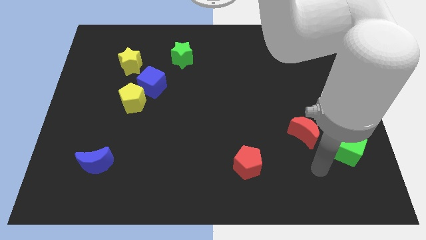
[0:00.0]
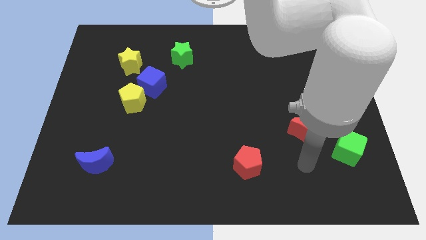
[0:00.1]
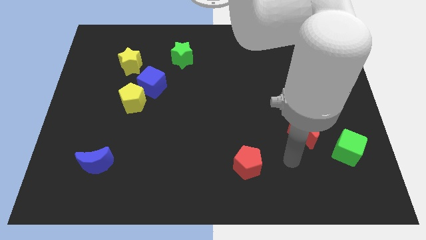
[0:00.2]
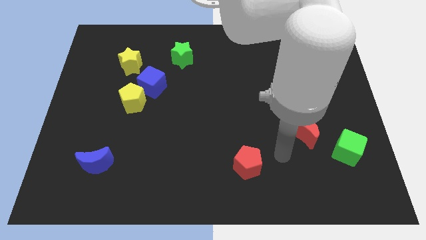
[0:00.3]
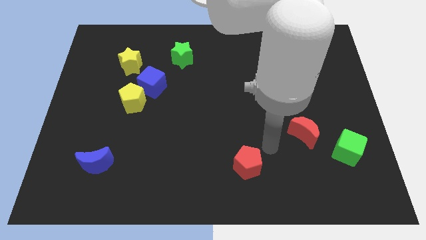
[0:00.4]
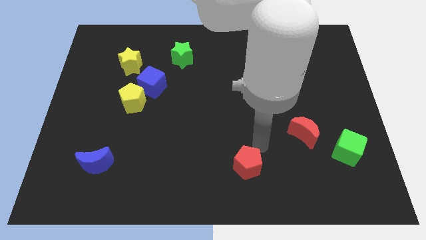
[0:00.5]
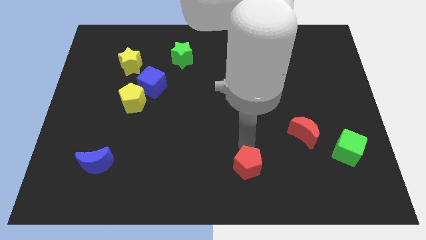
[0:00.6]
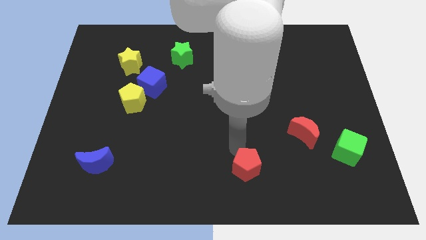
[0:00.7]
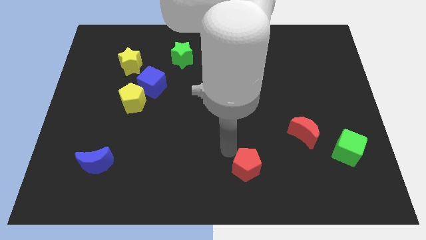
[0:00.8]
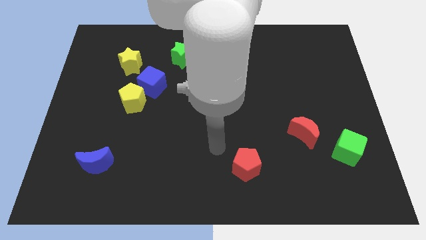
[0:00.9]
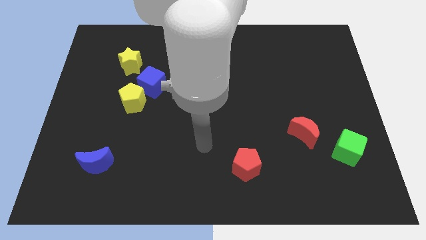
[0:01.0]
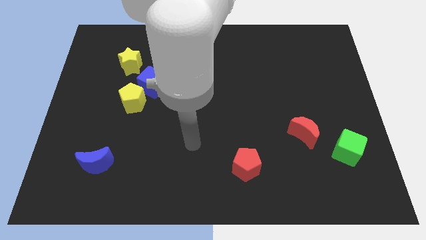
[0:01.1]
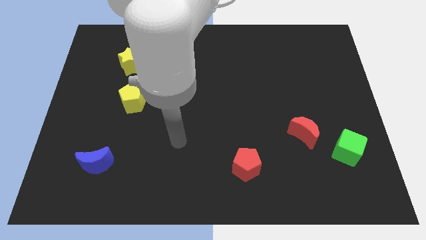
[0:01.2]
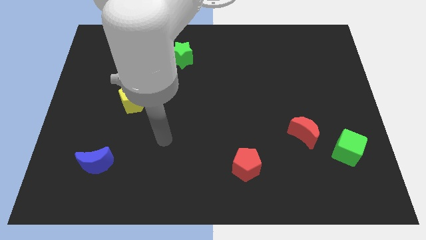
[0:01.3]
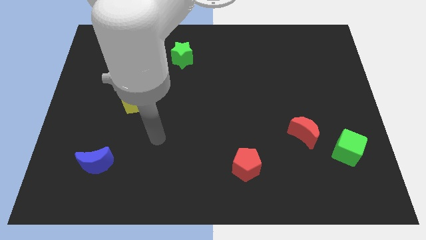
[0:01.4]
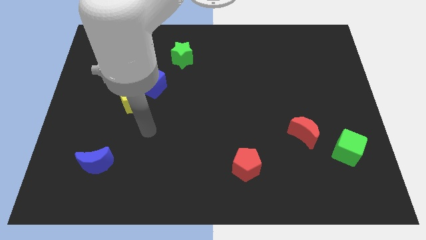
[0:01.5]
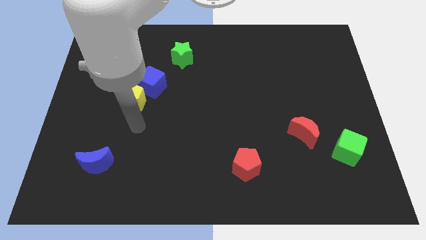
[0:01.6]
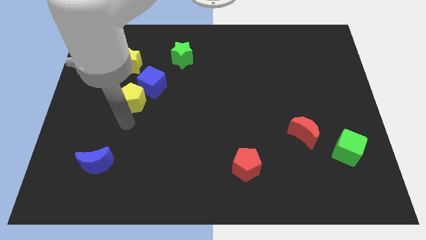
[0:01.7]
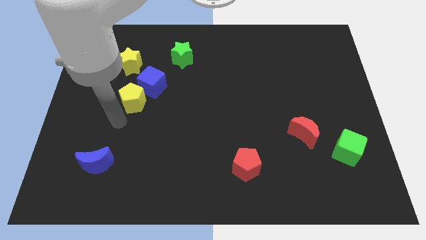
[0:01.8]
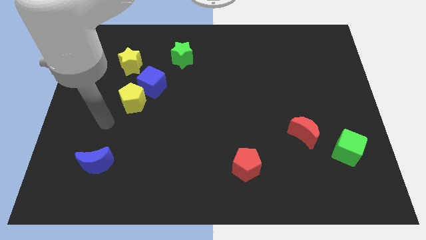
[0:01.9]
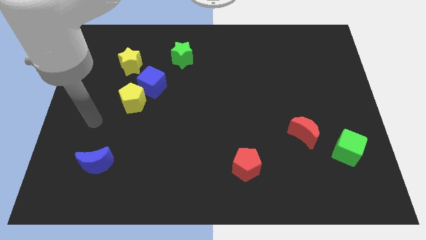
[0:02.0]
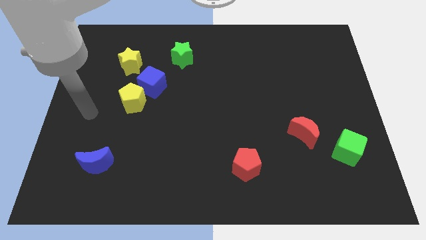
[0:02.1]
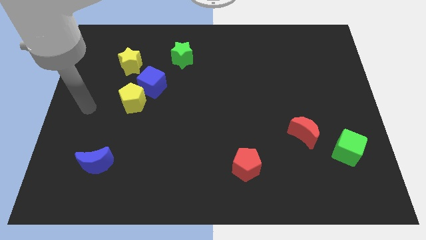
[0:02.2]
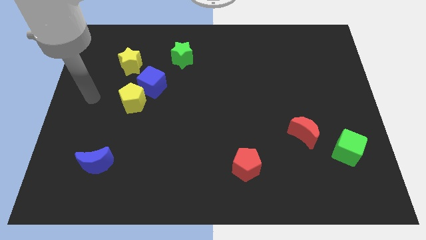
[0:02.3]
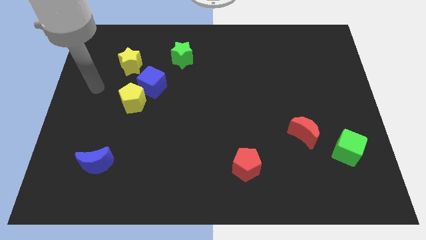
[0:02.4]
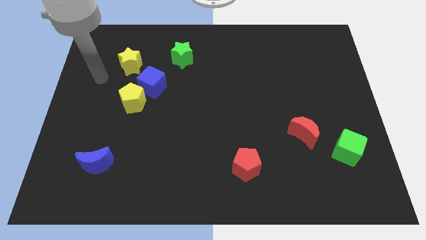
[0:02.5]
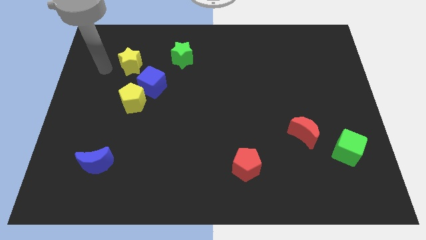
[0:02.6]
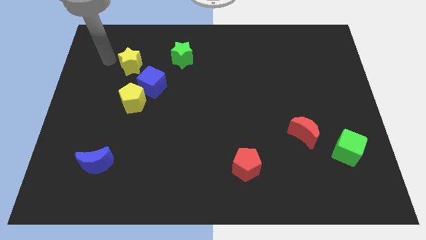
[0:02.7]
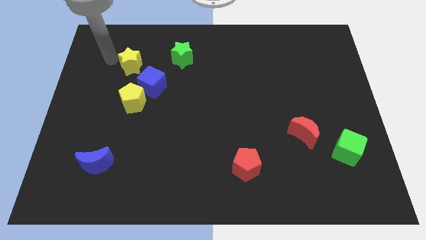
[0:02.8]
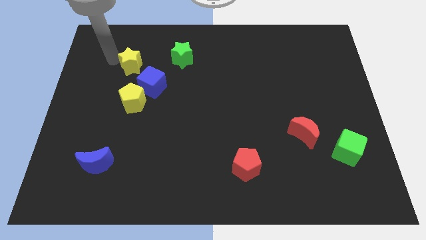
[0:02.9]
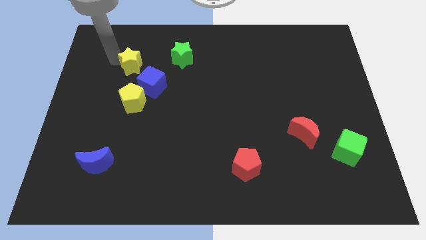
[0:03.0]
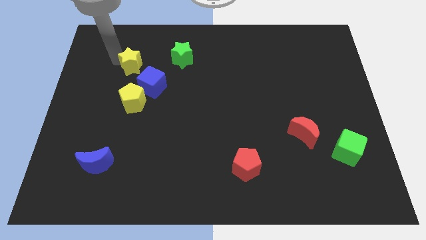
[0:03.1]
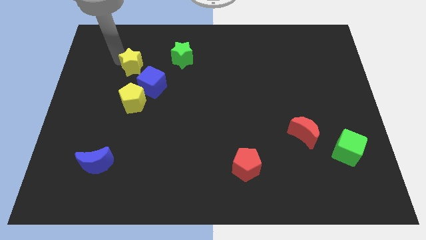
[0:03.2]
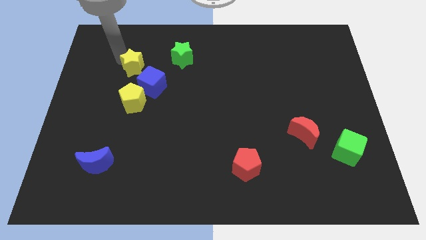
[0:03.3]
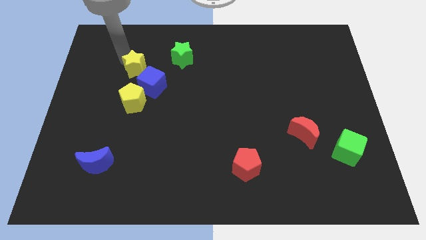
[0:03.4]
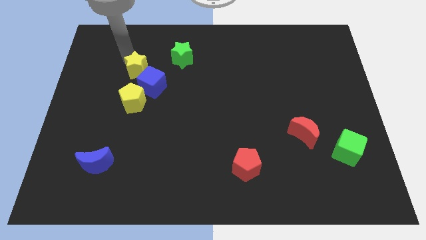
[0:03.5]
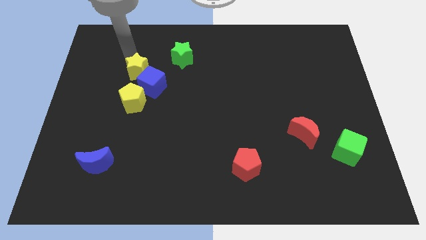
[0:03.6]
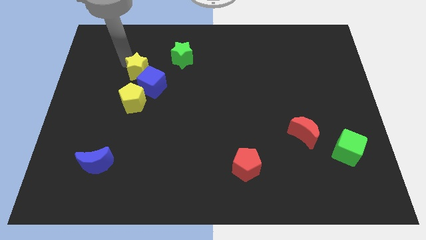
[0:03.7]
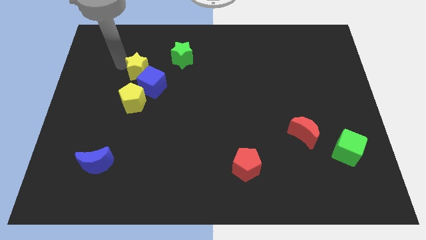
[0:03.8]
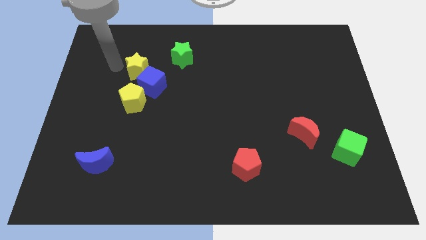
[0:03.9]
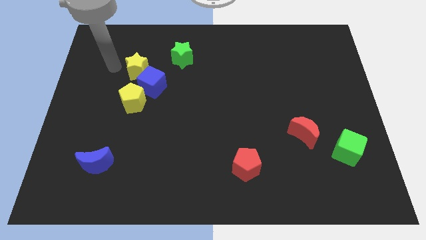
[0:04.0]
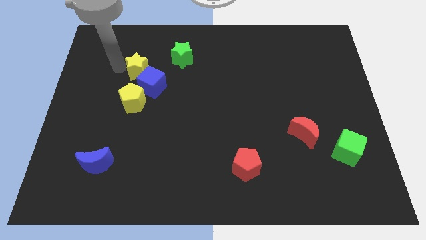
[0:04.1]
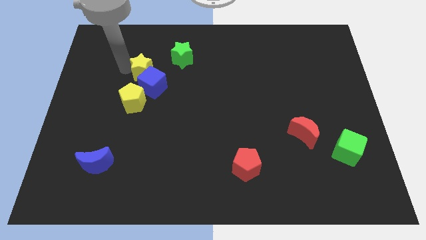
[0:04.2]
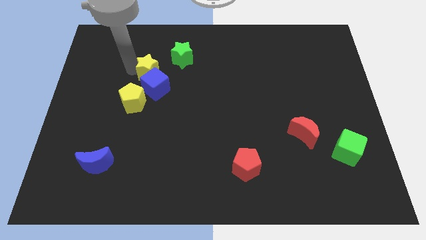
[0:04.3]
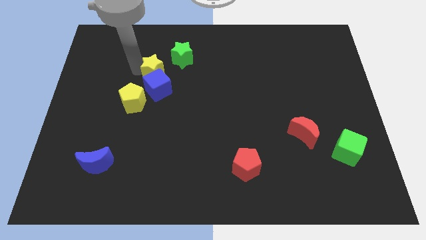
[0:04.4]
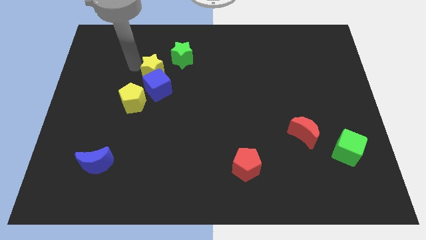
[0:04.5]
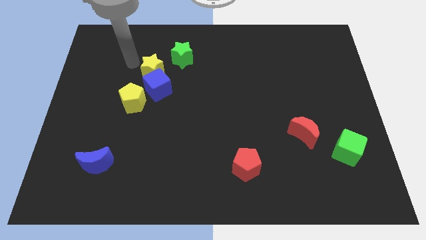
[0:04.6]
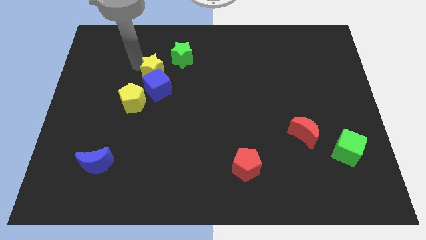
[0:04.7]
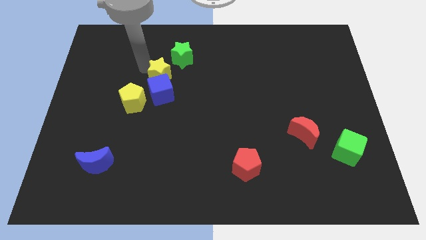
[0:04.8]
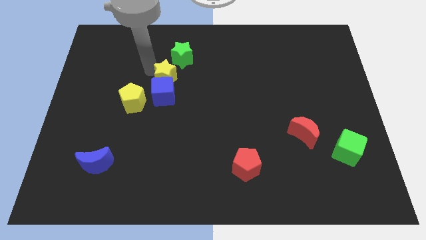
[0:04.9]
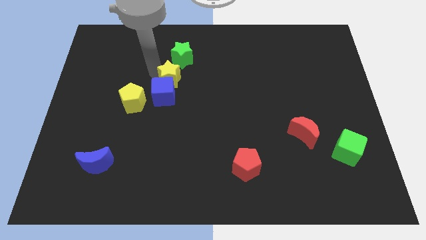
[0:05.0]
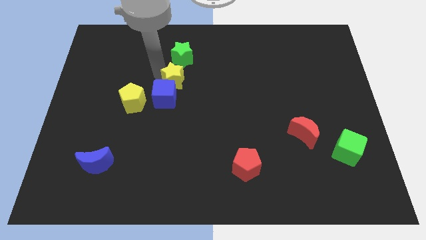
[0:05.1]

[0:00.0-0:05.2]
put the yellow star to the middle

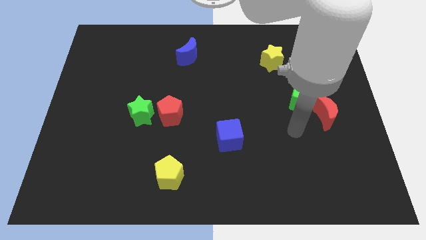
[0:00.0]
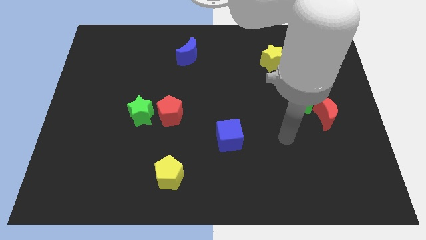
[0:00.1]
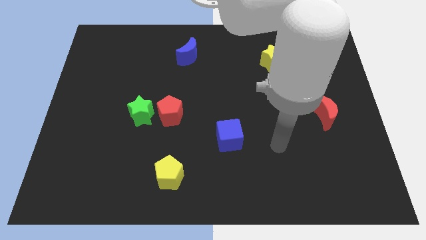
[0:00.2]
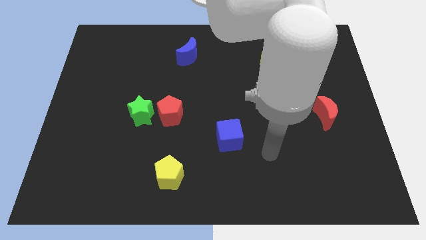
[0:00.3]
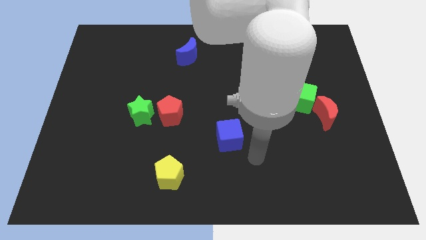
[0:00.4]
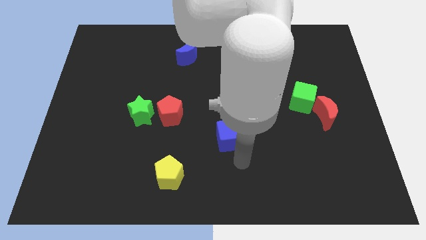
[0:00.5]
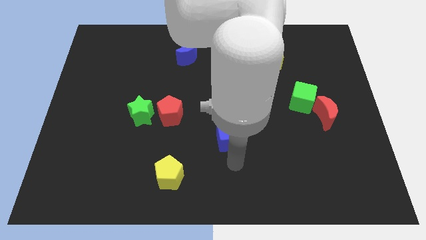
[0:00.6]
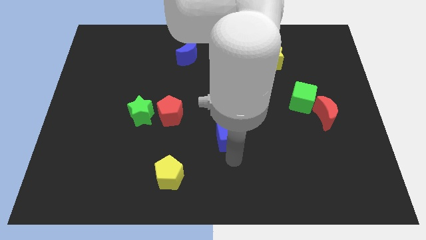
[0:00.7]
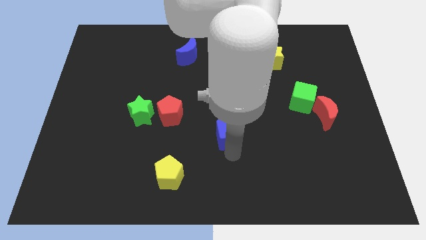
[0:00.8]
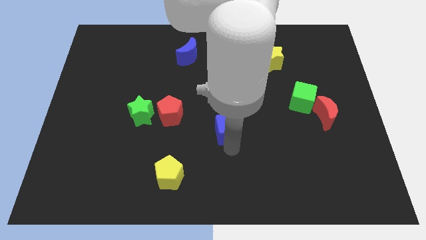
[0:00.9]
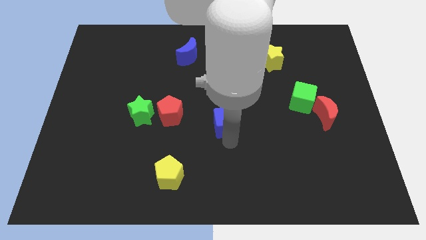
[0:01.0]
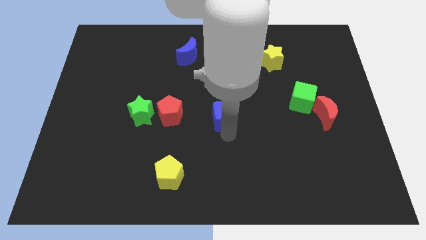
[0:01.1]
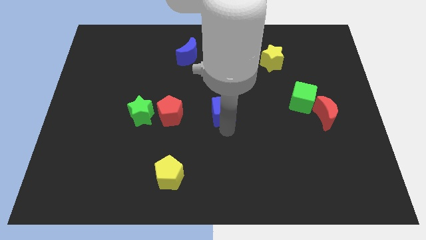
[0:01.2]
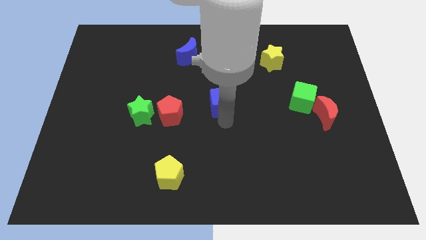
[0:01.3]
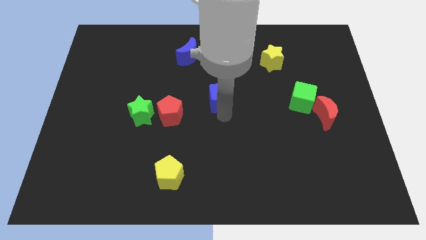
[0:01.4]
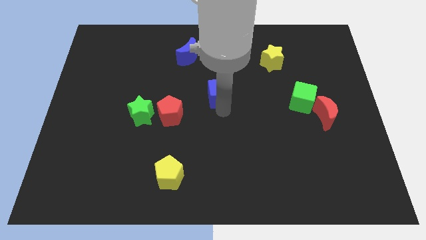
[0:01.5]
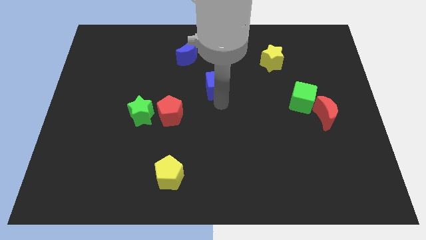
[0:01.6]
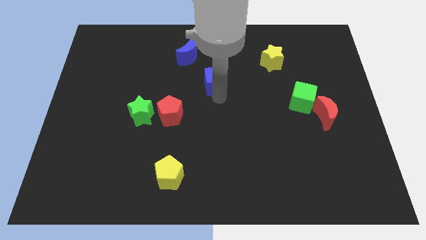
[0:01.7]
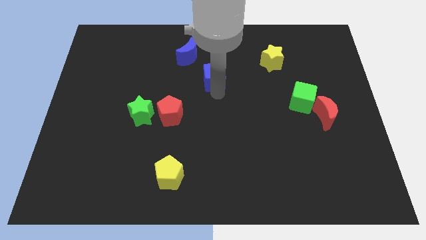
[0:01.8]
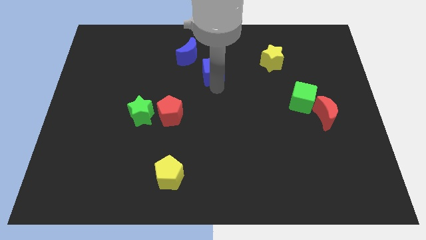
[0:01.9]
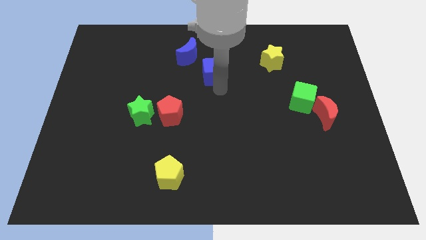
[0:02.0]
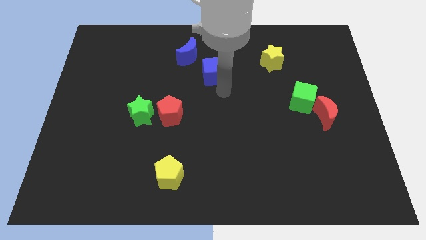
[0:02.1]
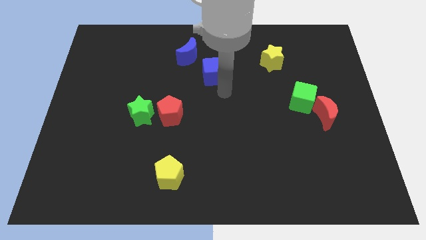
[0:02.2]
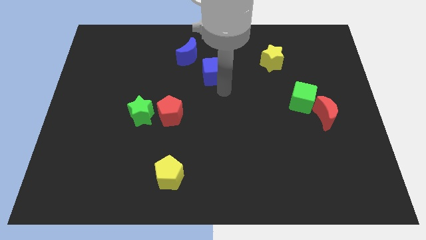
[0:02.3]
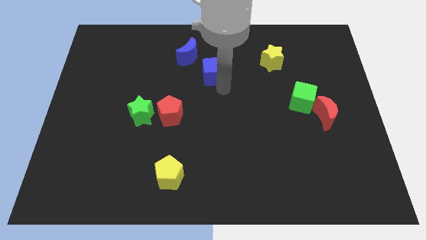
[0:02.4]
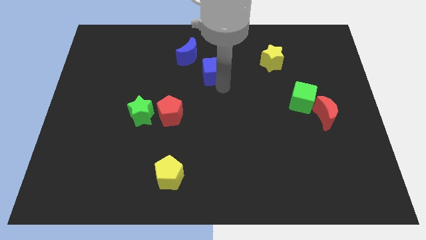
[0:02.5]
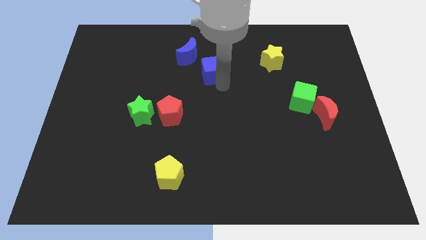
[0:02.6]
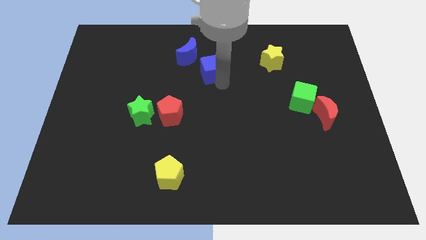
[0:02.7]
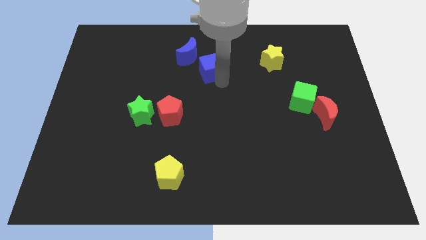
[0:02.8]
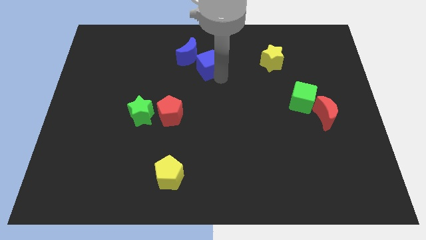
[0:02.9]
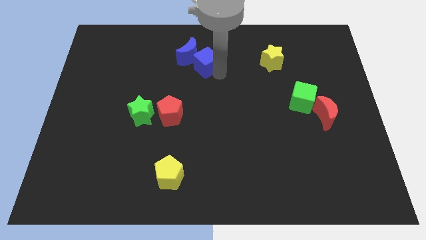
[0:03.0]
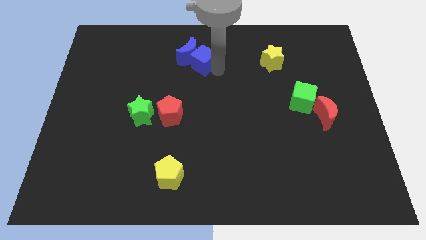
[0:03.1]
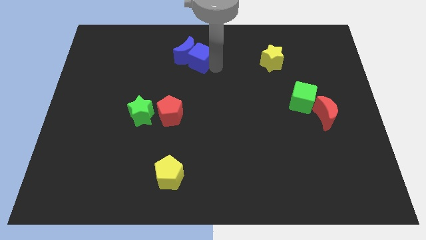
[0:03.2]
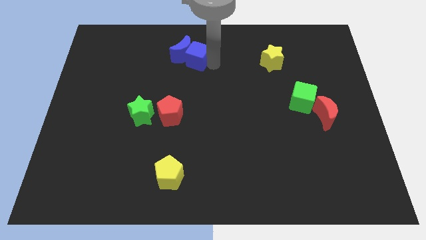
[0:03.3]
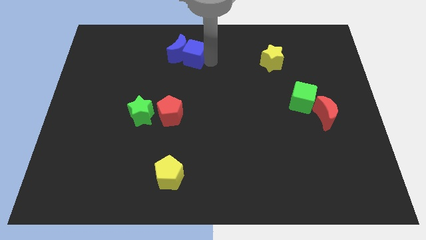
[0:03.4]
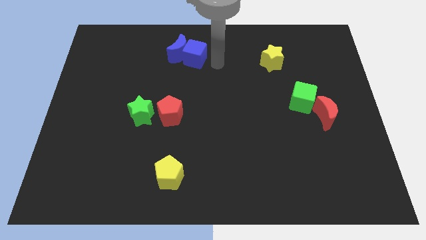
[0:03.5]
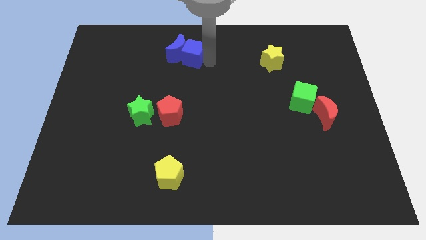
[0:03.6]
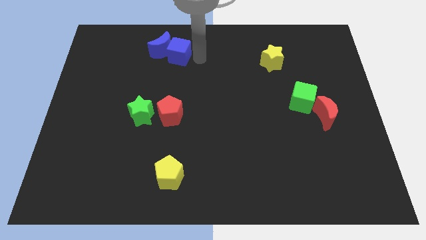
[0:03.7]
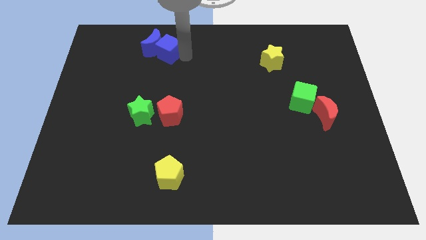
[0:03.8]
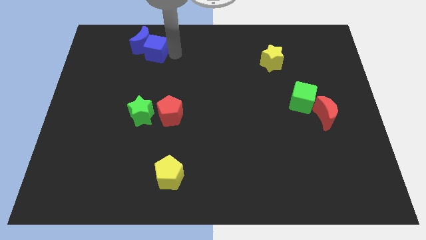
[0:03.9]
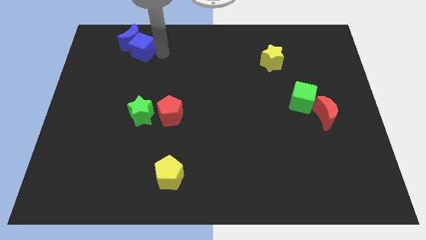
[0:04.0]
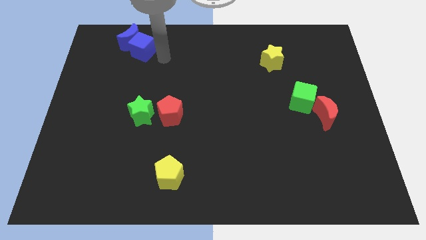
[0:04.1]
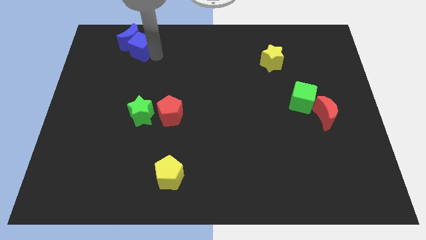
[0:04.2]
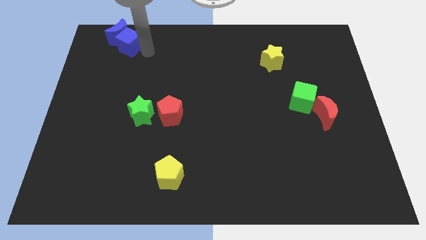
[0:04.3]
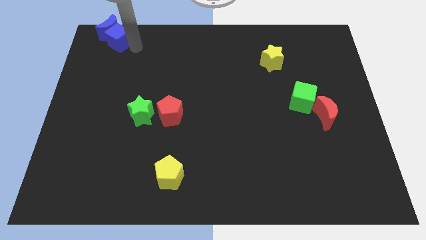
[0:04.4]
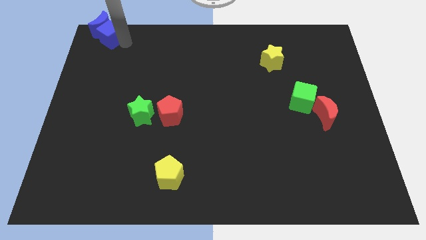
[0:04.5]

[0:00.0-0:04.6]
put the blue cube to the top left corner
